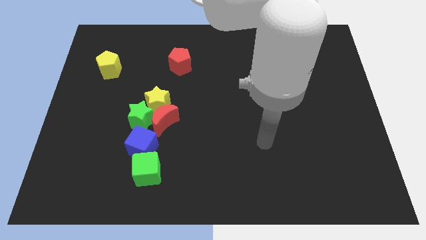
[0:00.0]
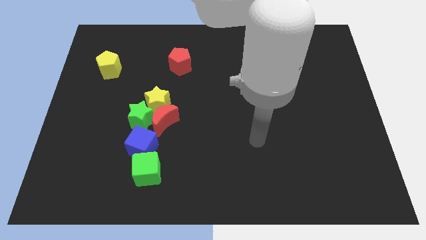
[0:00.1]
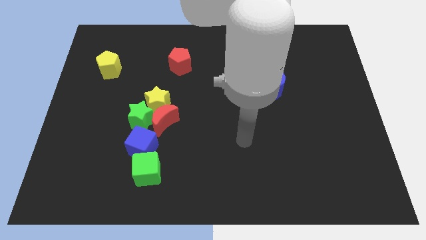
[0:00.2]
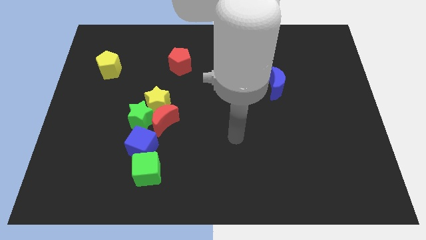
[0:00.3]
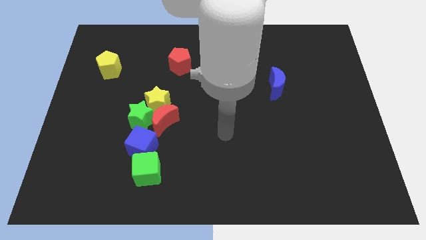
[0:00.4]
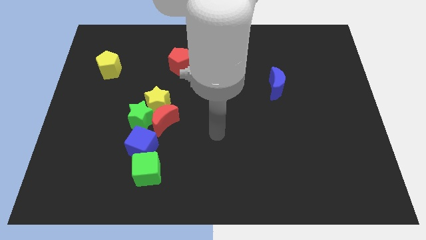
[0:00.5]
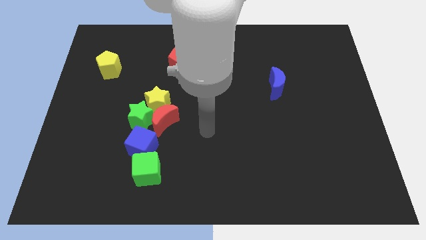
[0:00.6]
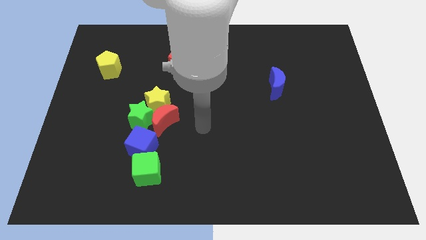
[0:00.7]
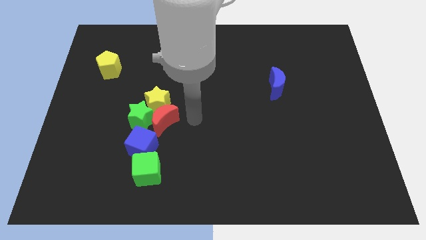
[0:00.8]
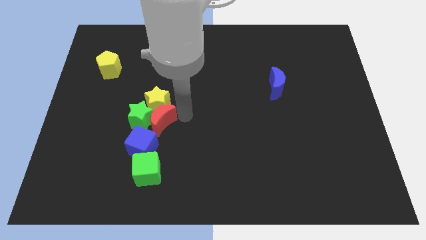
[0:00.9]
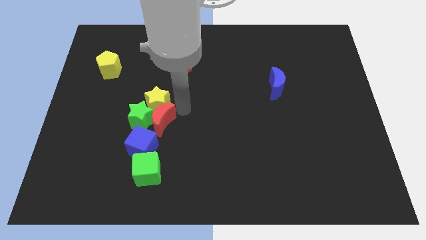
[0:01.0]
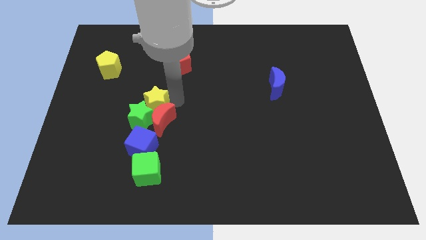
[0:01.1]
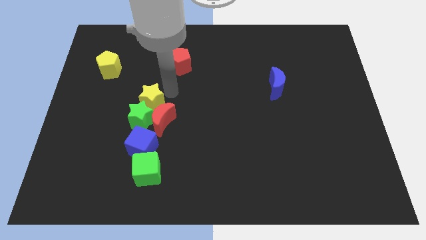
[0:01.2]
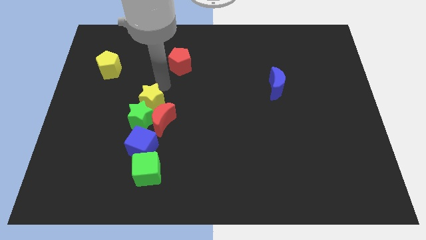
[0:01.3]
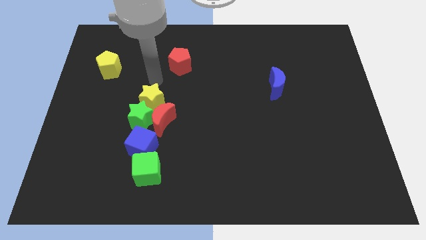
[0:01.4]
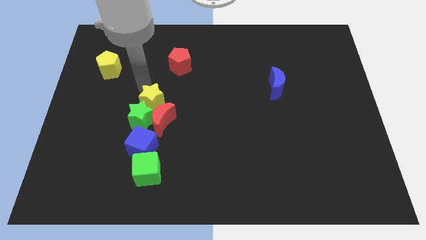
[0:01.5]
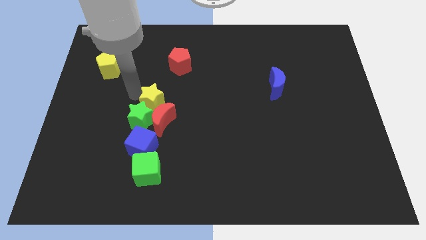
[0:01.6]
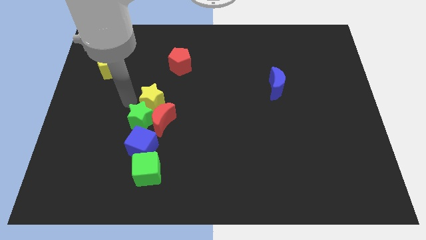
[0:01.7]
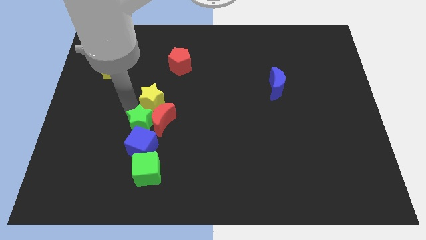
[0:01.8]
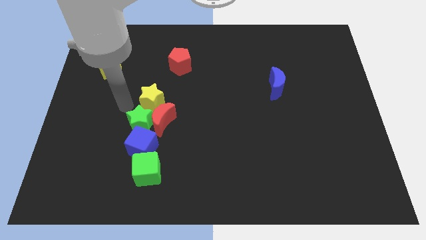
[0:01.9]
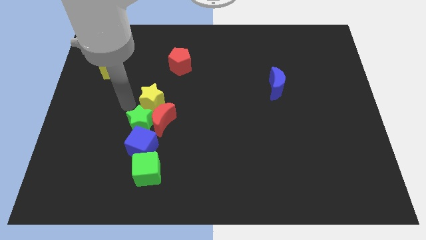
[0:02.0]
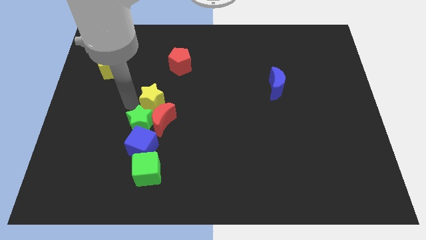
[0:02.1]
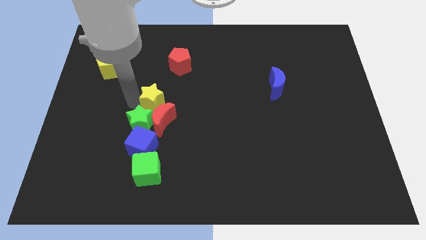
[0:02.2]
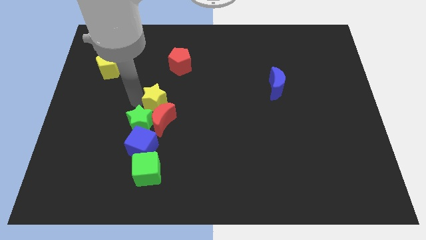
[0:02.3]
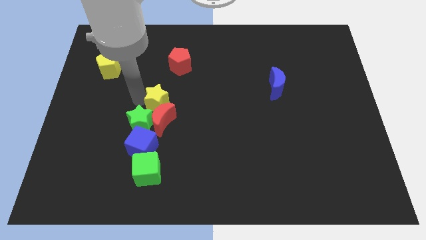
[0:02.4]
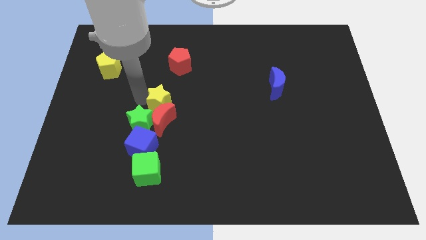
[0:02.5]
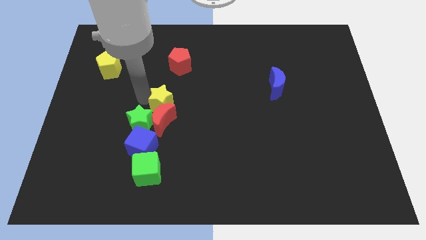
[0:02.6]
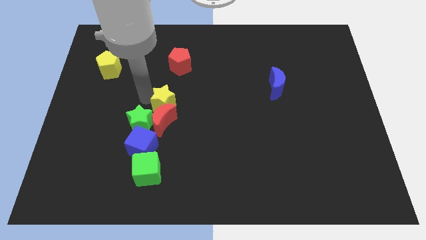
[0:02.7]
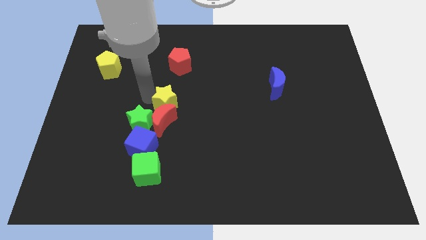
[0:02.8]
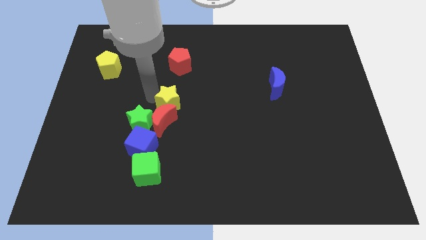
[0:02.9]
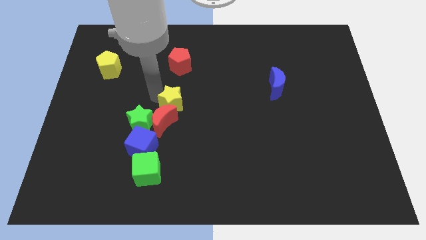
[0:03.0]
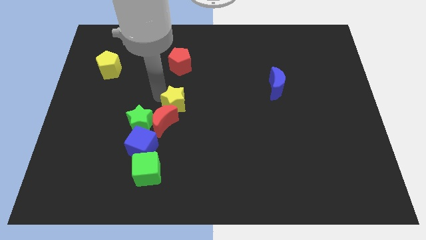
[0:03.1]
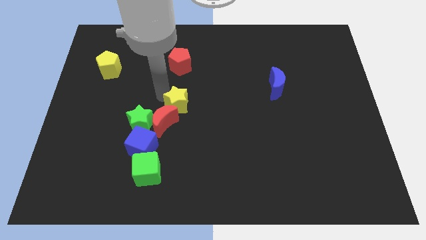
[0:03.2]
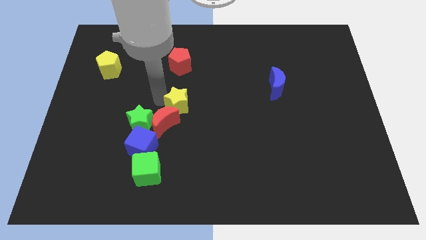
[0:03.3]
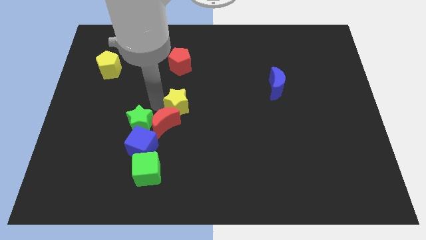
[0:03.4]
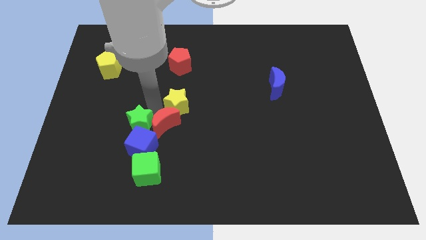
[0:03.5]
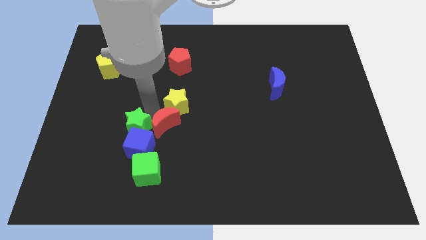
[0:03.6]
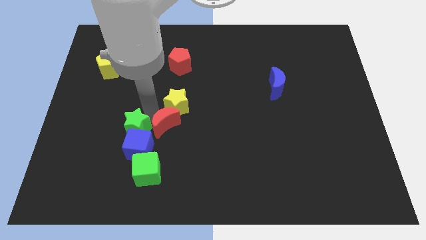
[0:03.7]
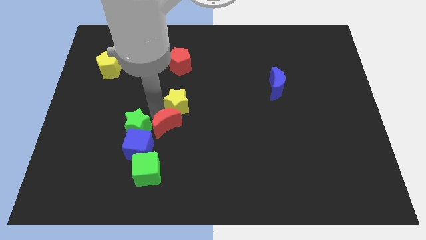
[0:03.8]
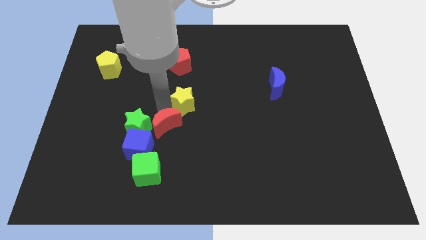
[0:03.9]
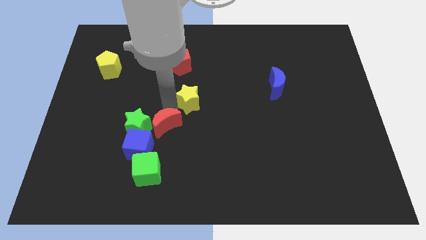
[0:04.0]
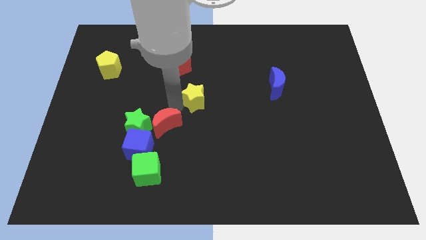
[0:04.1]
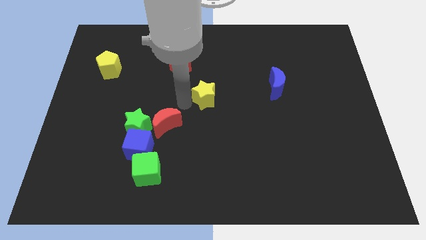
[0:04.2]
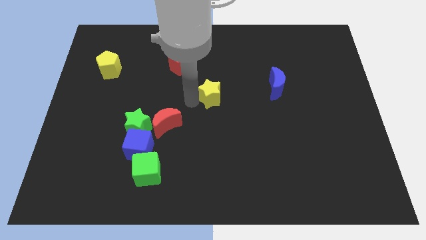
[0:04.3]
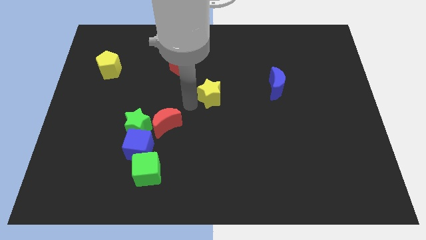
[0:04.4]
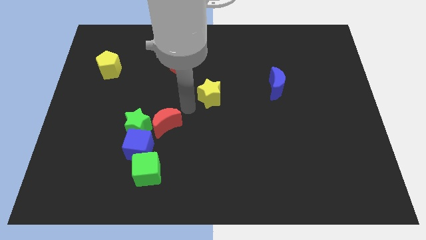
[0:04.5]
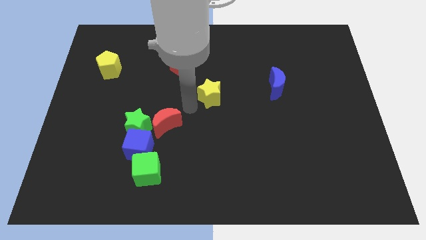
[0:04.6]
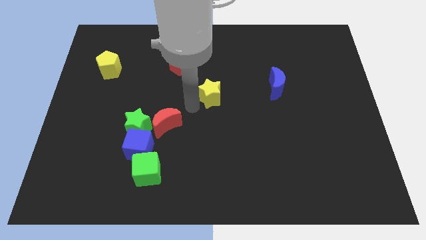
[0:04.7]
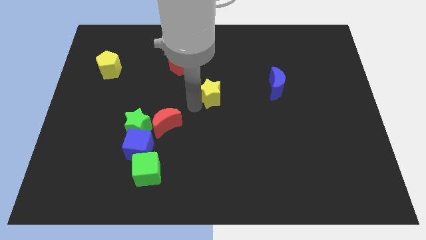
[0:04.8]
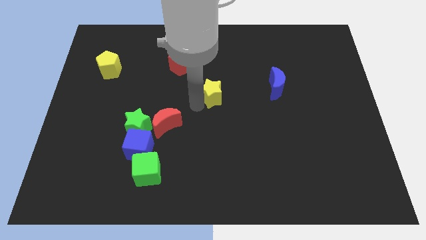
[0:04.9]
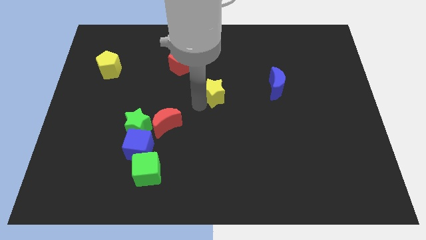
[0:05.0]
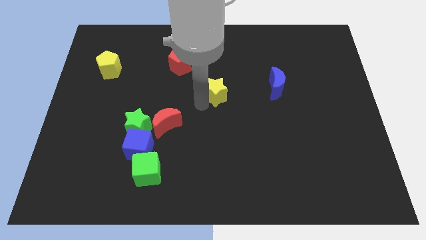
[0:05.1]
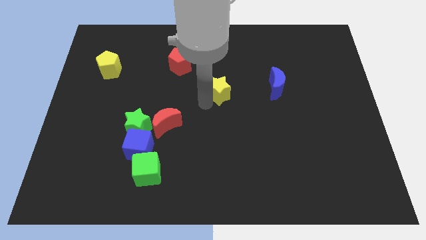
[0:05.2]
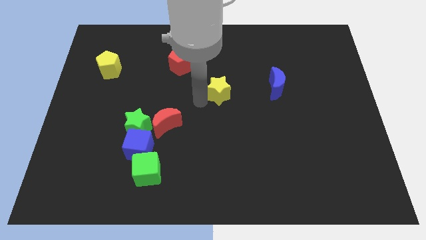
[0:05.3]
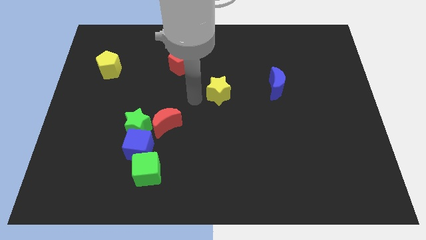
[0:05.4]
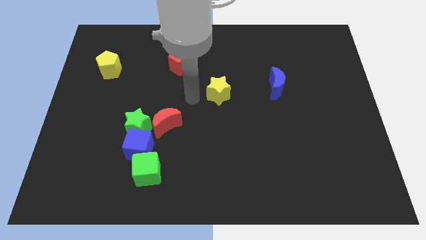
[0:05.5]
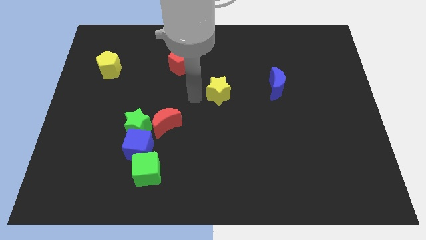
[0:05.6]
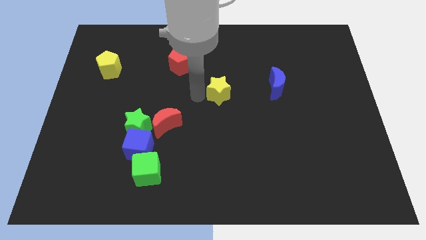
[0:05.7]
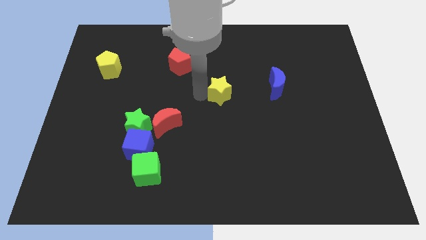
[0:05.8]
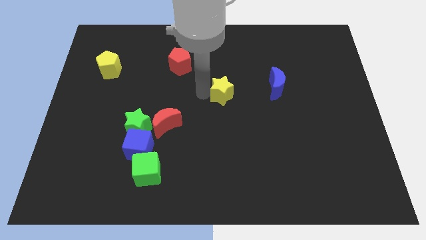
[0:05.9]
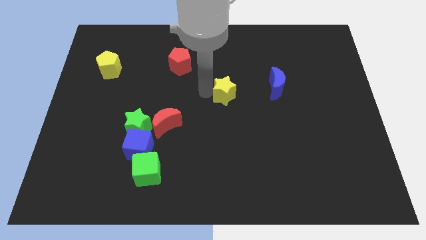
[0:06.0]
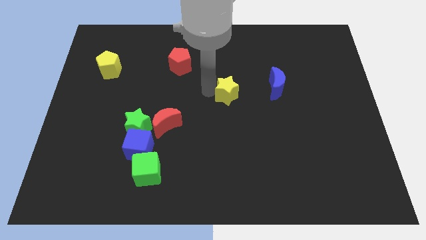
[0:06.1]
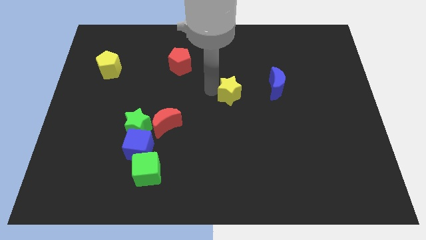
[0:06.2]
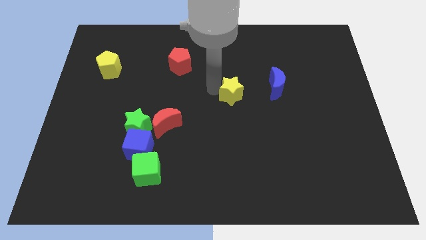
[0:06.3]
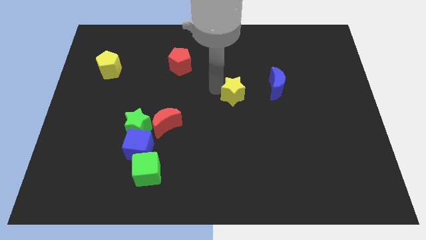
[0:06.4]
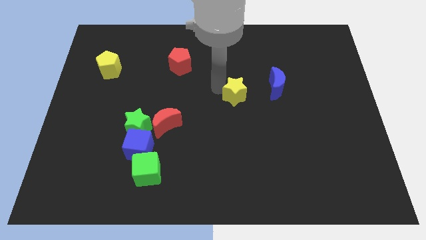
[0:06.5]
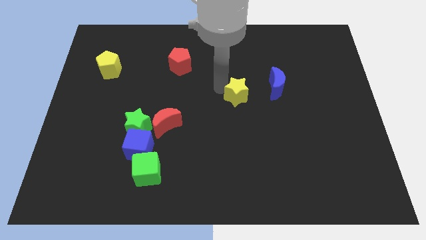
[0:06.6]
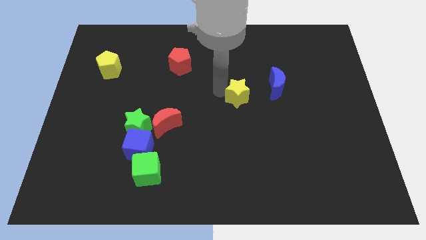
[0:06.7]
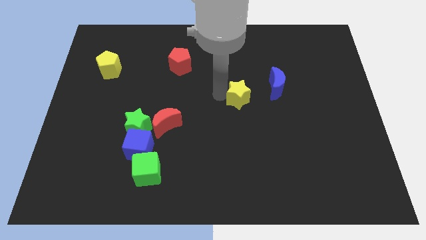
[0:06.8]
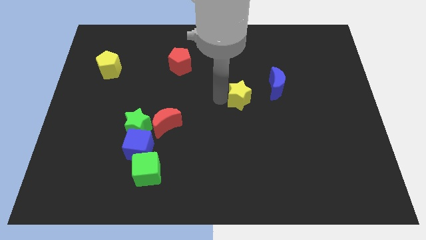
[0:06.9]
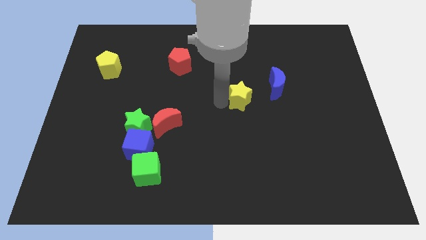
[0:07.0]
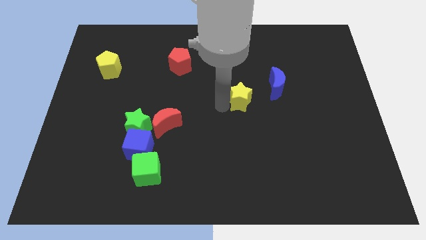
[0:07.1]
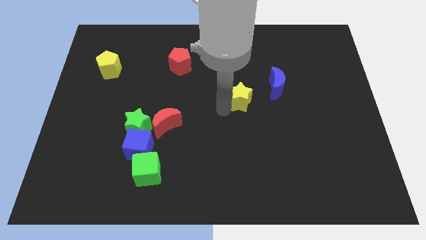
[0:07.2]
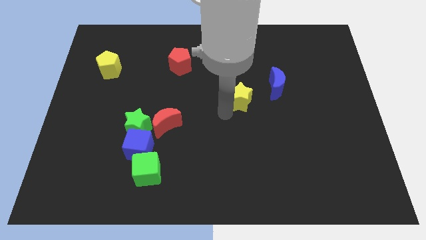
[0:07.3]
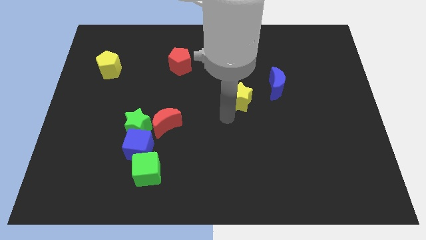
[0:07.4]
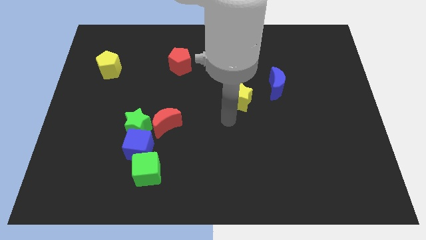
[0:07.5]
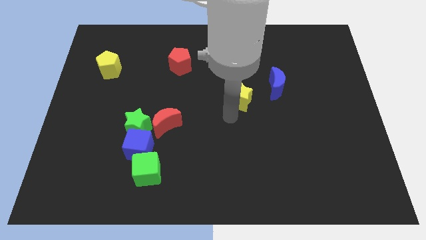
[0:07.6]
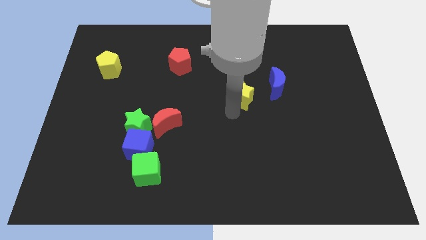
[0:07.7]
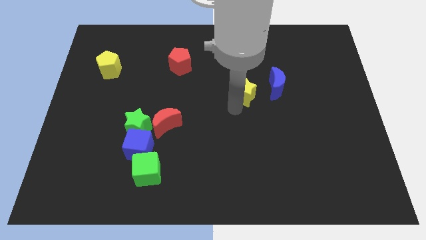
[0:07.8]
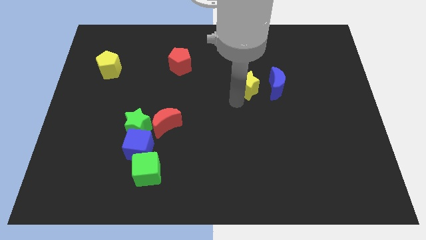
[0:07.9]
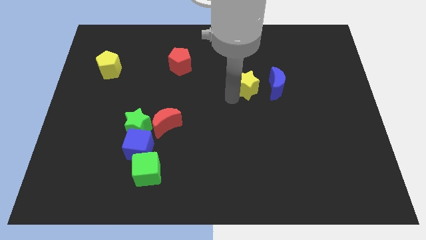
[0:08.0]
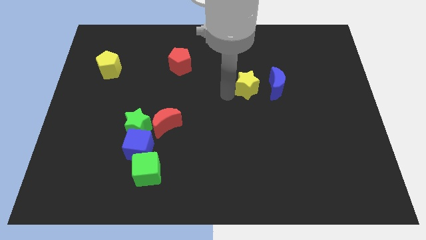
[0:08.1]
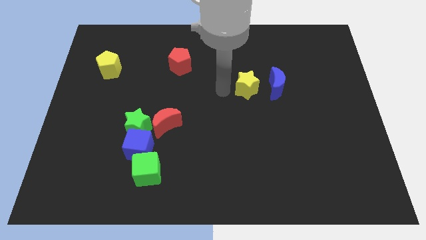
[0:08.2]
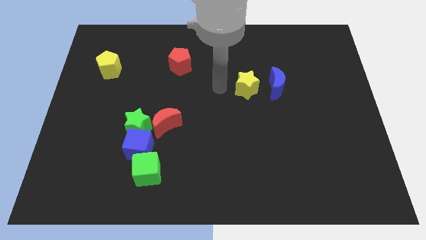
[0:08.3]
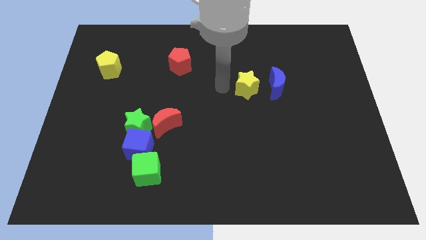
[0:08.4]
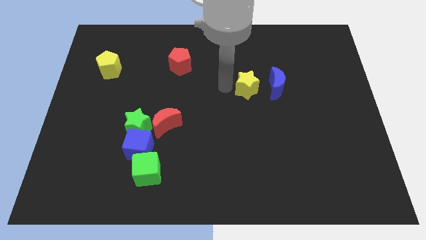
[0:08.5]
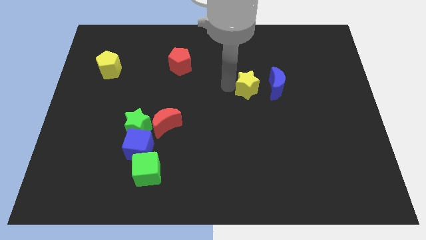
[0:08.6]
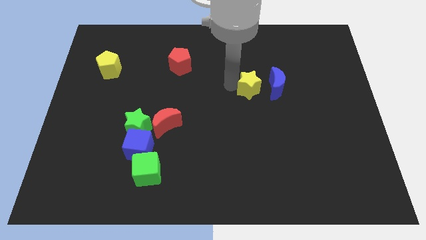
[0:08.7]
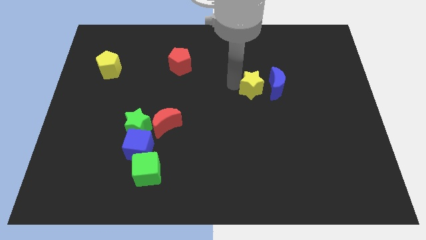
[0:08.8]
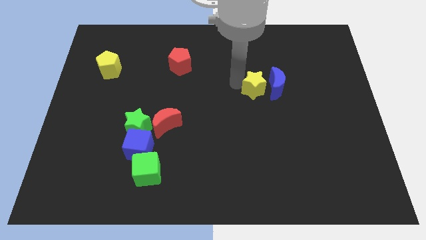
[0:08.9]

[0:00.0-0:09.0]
push the yellow star next to the blue moon
